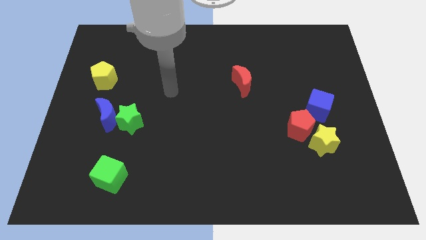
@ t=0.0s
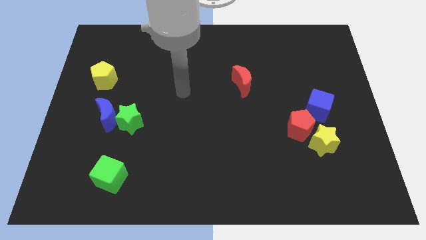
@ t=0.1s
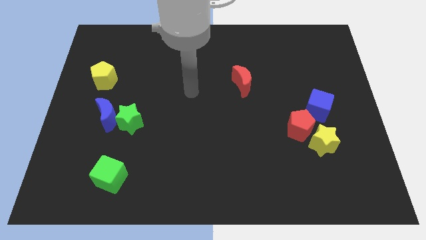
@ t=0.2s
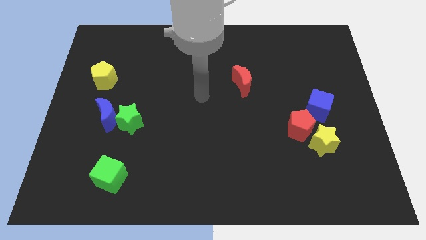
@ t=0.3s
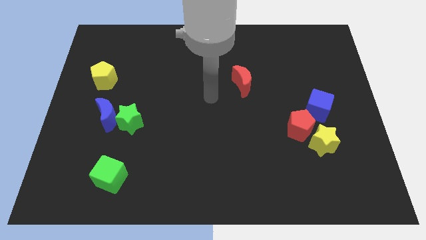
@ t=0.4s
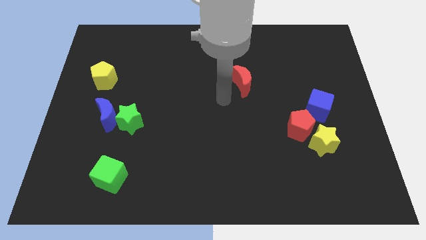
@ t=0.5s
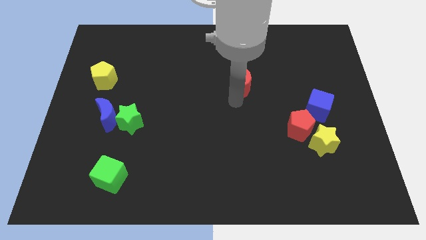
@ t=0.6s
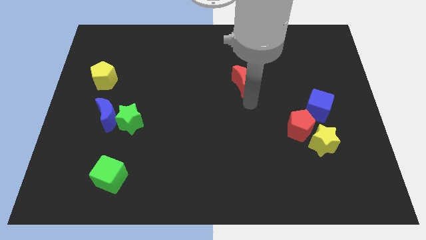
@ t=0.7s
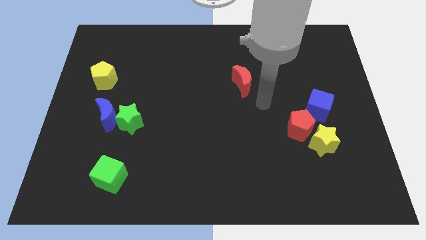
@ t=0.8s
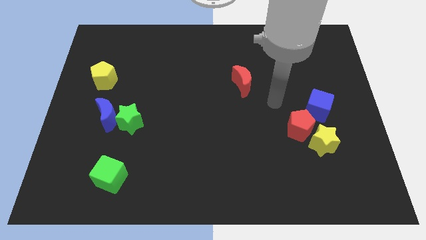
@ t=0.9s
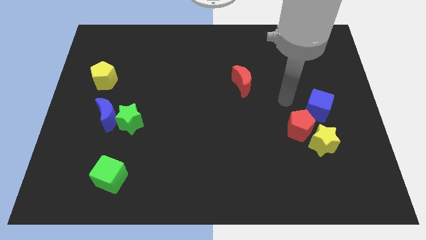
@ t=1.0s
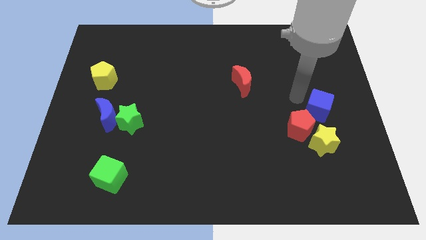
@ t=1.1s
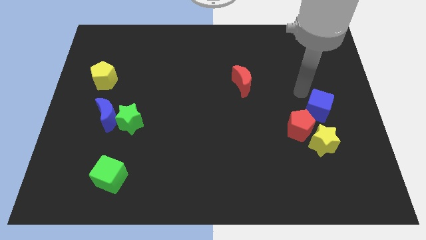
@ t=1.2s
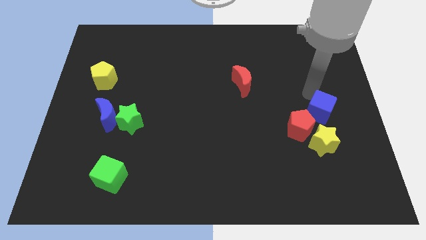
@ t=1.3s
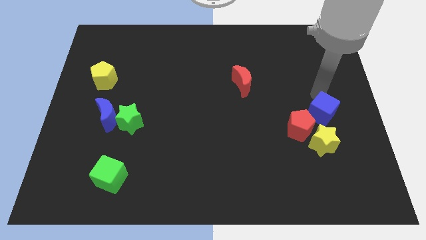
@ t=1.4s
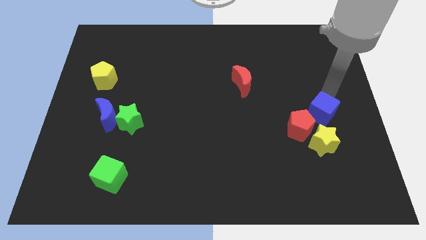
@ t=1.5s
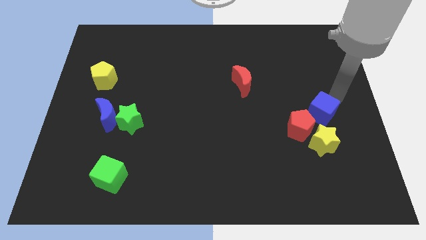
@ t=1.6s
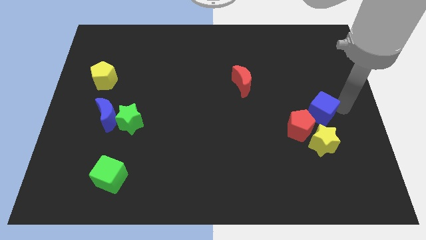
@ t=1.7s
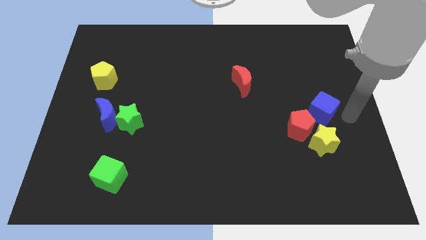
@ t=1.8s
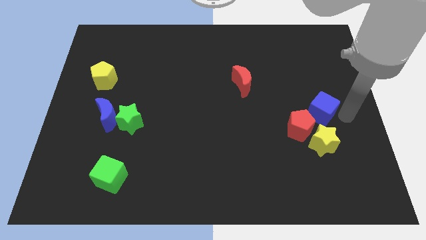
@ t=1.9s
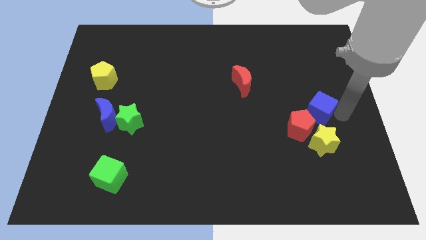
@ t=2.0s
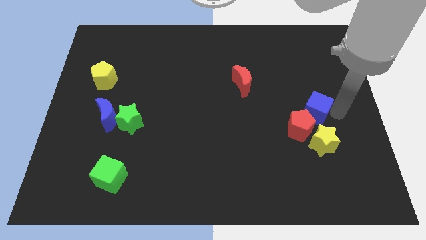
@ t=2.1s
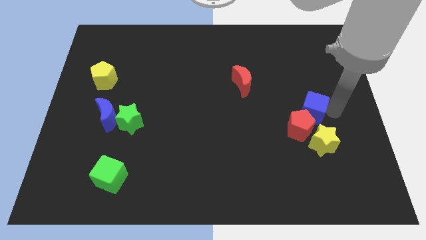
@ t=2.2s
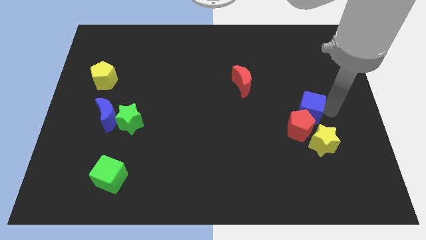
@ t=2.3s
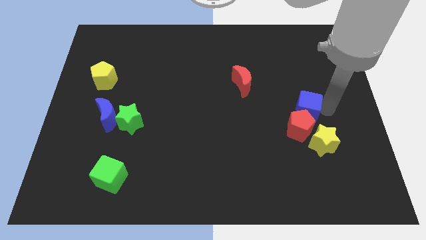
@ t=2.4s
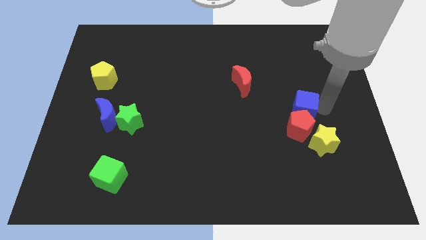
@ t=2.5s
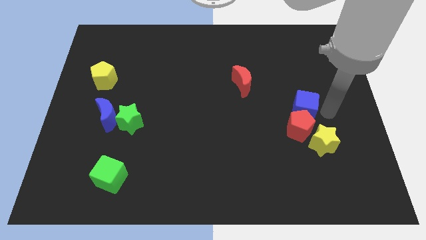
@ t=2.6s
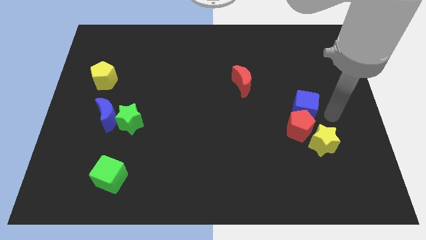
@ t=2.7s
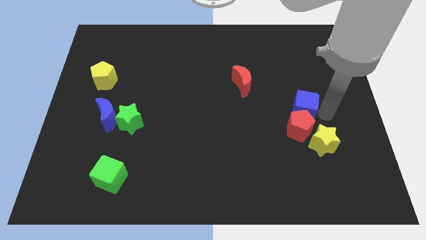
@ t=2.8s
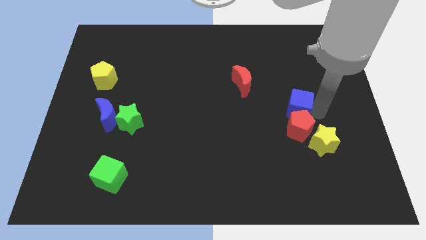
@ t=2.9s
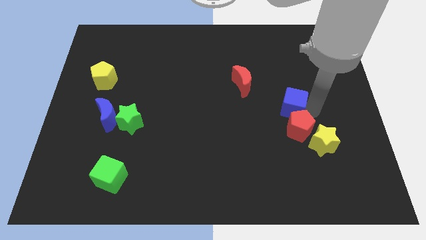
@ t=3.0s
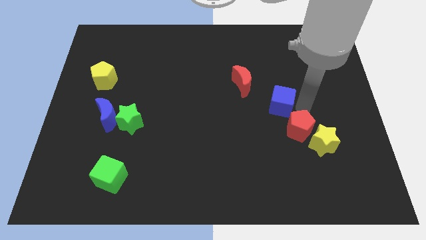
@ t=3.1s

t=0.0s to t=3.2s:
slide the blue cube a bit to the left

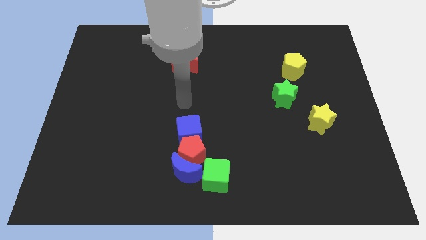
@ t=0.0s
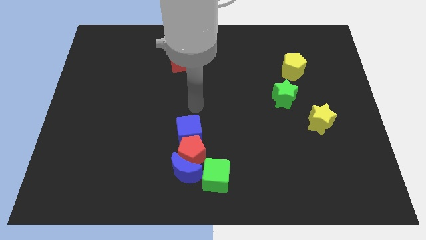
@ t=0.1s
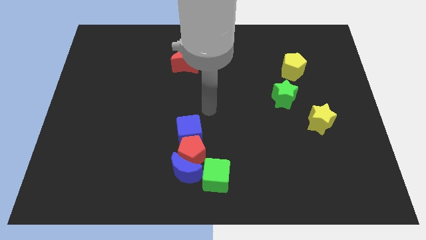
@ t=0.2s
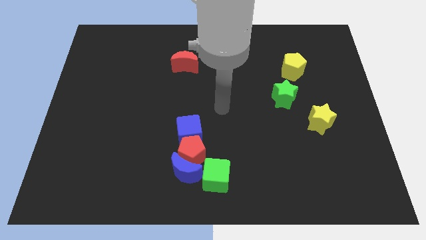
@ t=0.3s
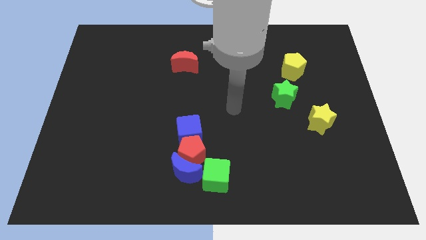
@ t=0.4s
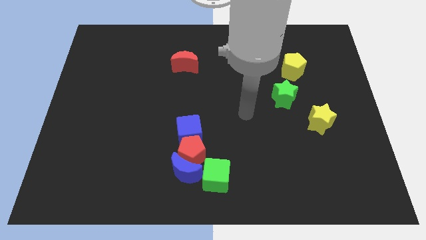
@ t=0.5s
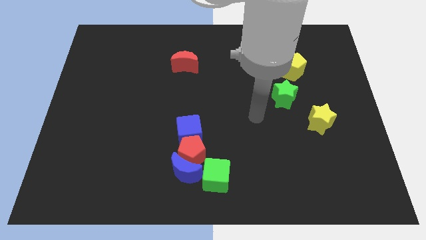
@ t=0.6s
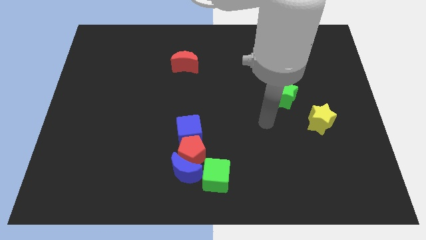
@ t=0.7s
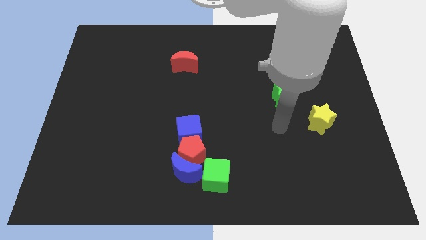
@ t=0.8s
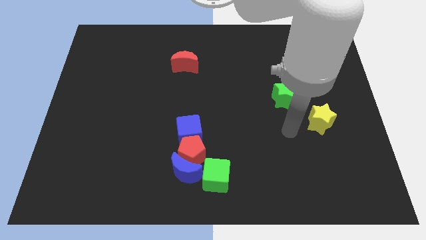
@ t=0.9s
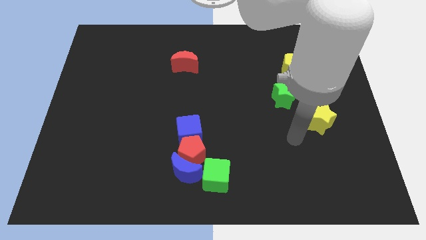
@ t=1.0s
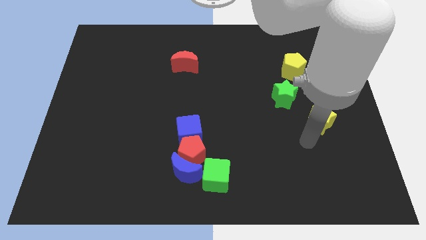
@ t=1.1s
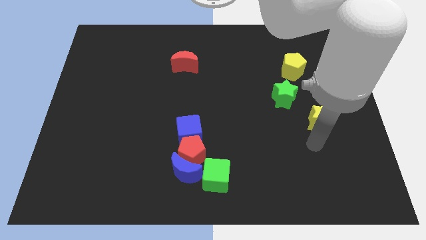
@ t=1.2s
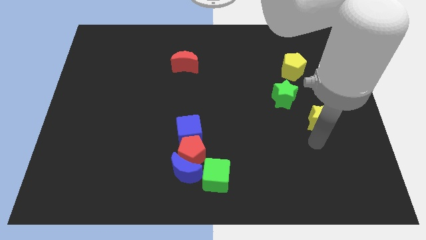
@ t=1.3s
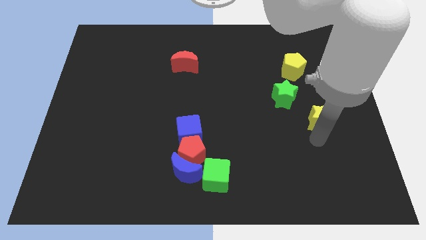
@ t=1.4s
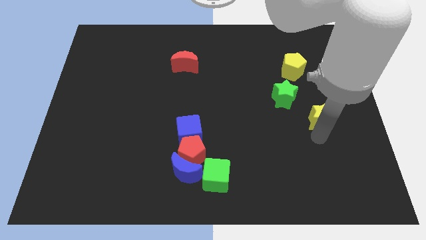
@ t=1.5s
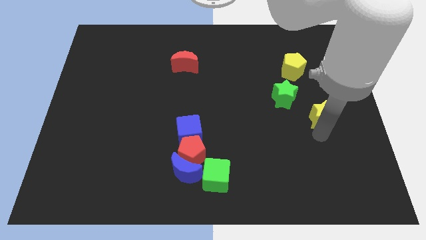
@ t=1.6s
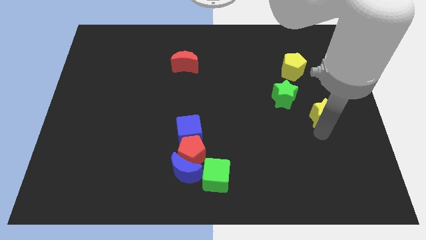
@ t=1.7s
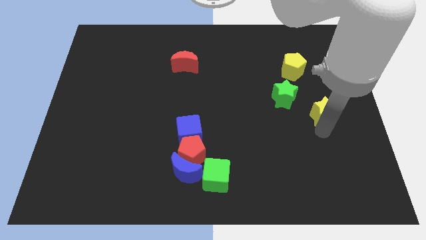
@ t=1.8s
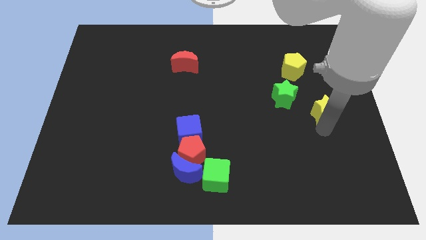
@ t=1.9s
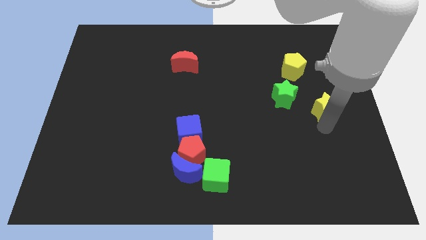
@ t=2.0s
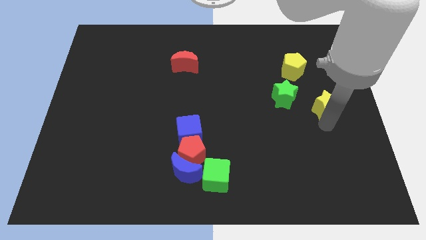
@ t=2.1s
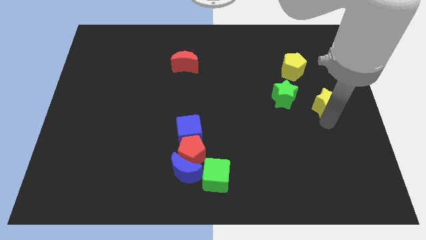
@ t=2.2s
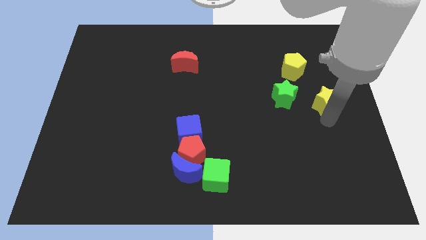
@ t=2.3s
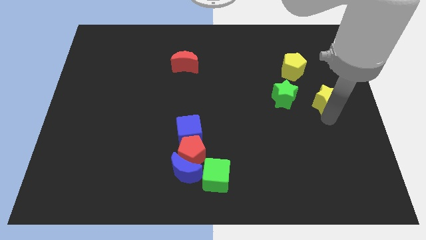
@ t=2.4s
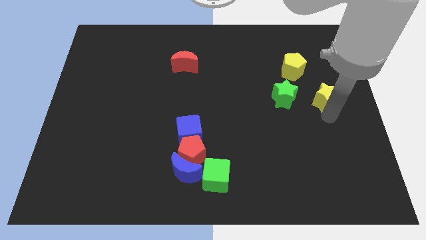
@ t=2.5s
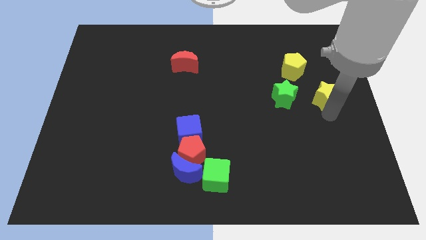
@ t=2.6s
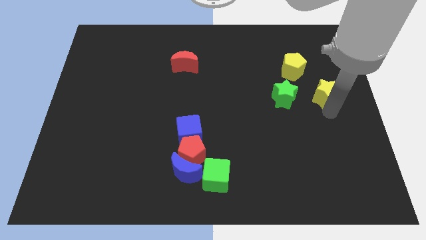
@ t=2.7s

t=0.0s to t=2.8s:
slightly push the yellow star upwards

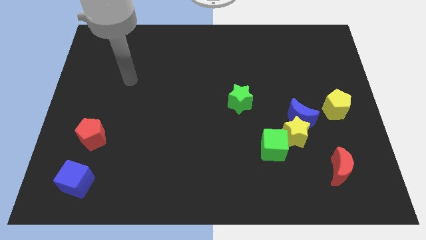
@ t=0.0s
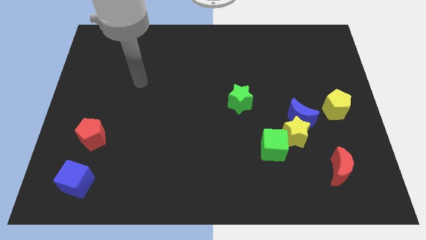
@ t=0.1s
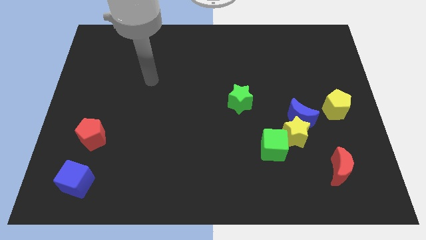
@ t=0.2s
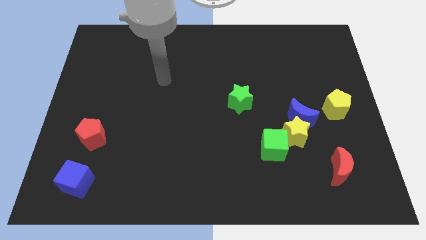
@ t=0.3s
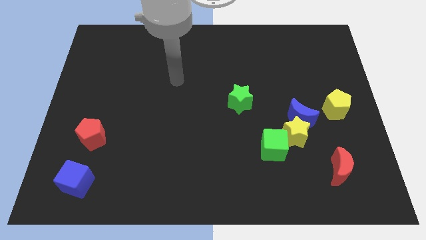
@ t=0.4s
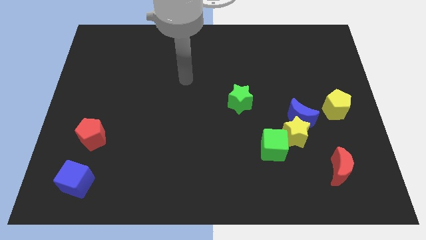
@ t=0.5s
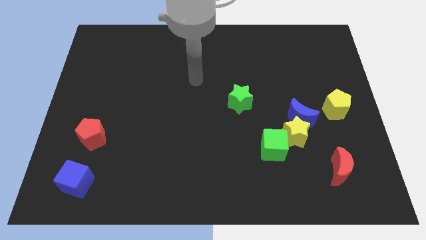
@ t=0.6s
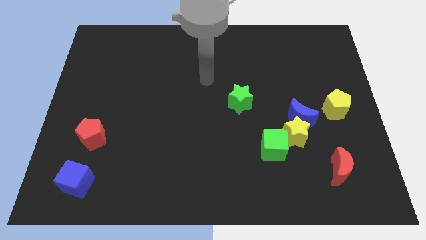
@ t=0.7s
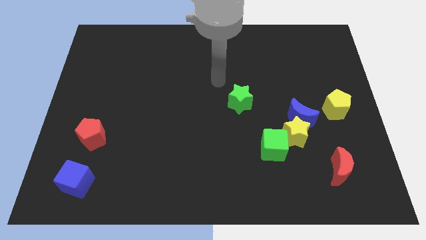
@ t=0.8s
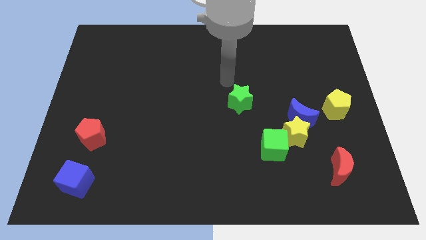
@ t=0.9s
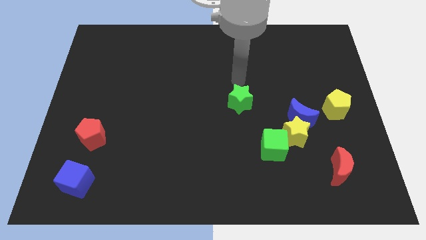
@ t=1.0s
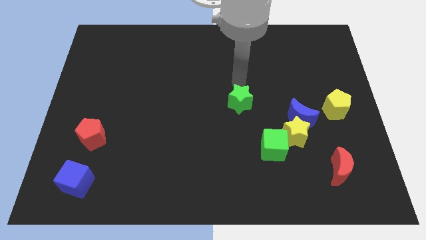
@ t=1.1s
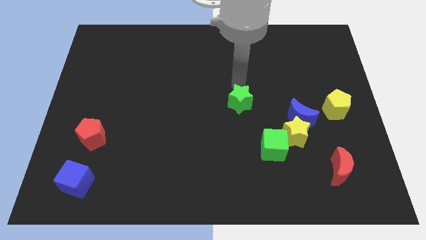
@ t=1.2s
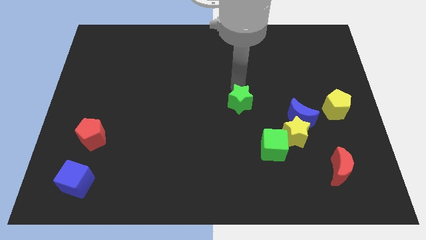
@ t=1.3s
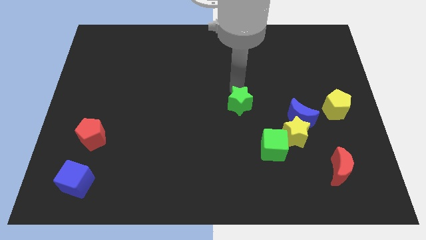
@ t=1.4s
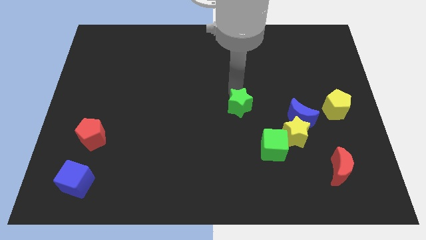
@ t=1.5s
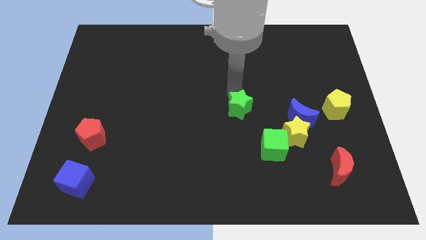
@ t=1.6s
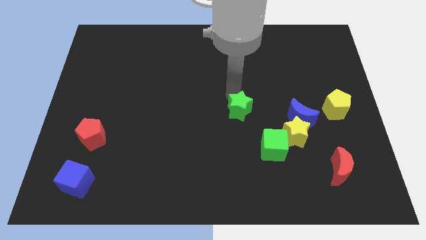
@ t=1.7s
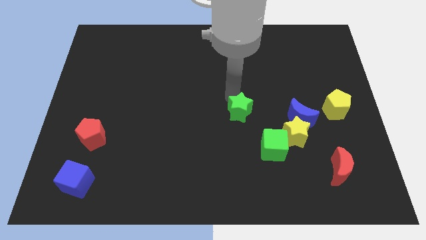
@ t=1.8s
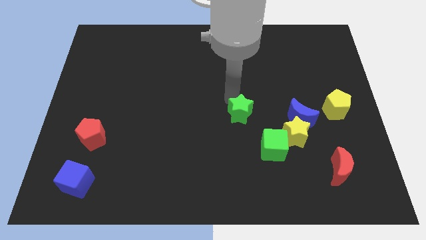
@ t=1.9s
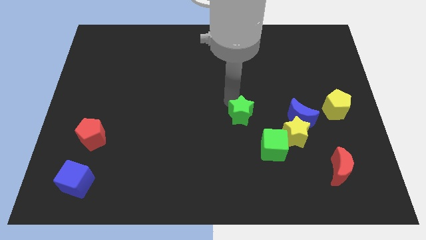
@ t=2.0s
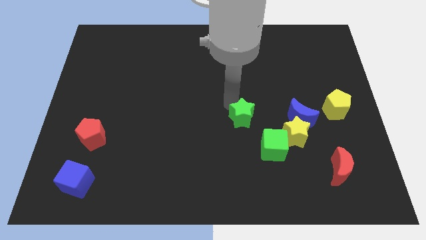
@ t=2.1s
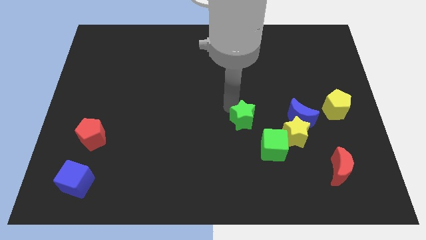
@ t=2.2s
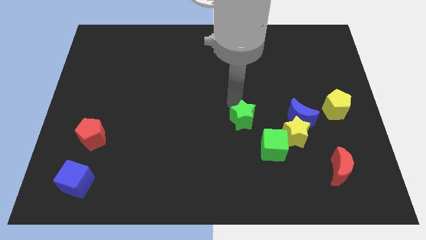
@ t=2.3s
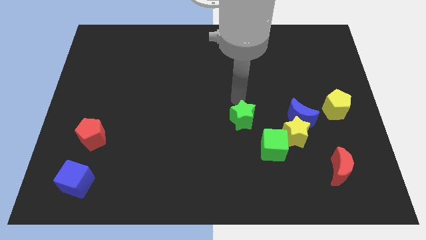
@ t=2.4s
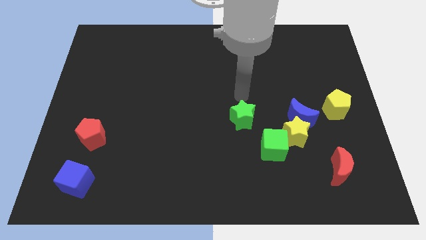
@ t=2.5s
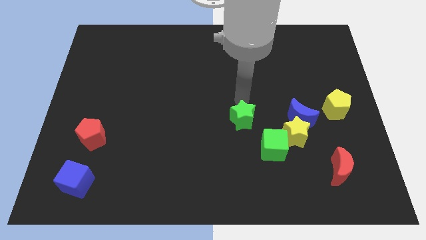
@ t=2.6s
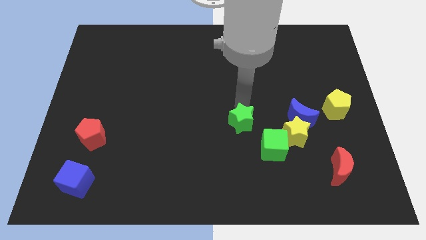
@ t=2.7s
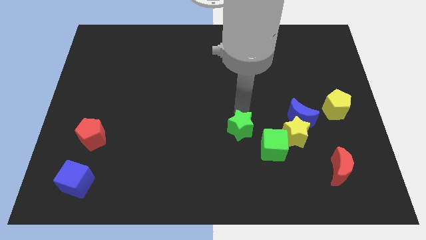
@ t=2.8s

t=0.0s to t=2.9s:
move the green star somewhat downwards
